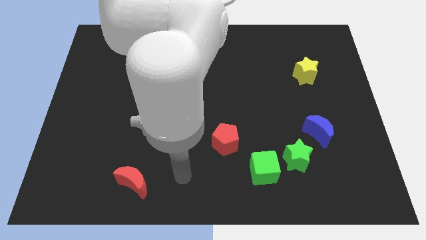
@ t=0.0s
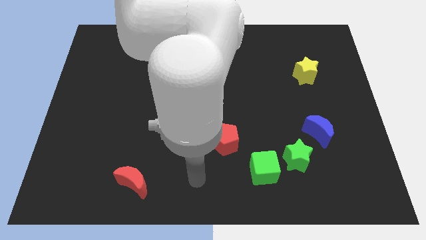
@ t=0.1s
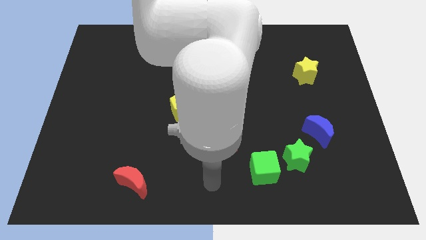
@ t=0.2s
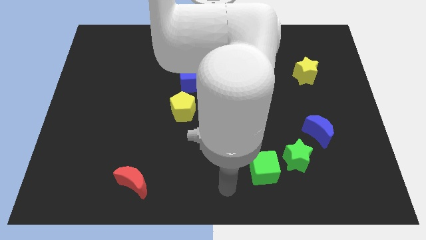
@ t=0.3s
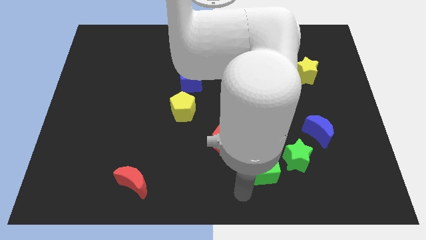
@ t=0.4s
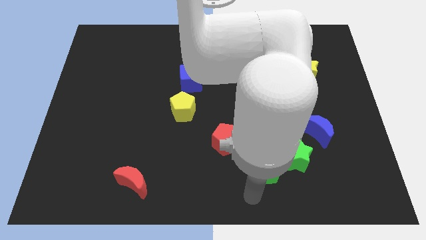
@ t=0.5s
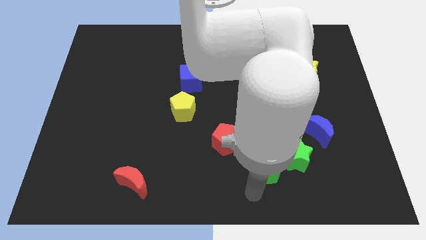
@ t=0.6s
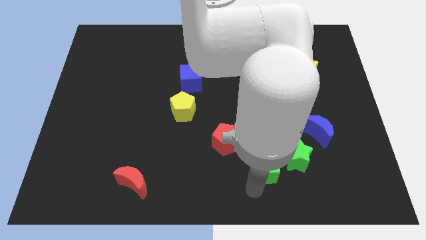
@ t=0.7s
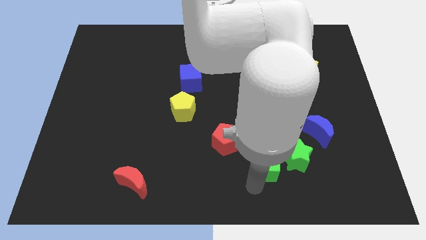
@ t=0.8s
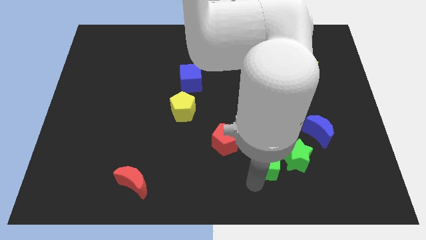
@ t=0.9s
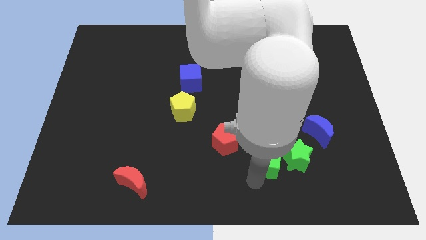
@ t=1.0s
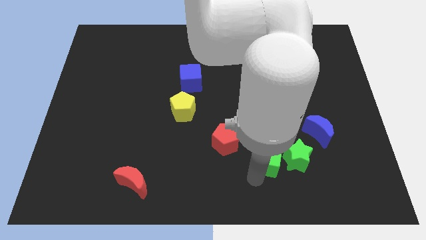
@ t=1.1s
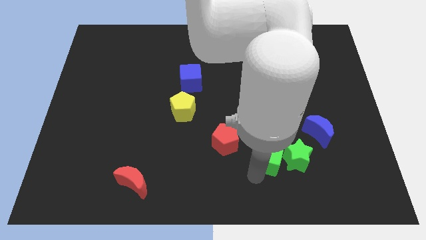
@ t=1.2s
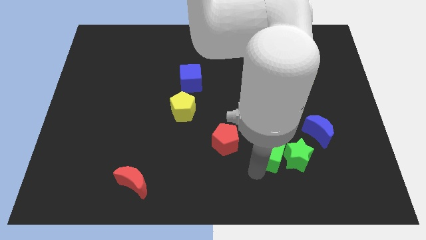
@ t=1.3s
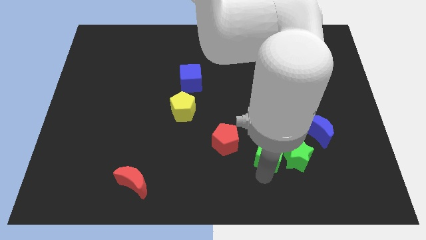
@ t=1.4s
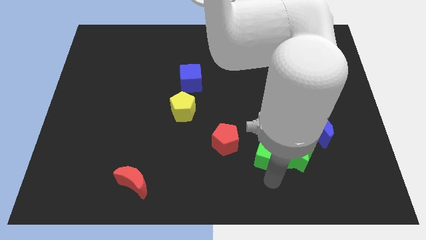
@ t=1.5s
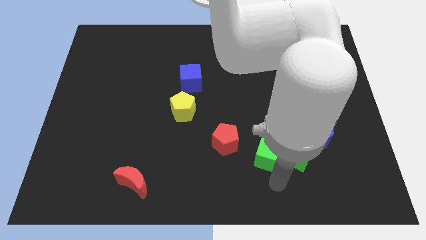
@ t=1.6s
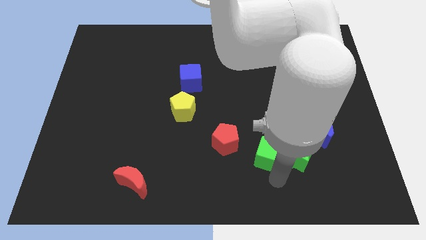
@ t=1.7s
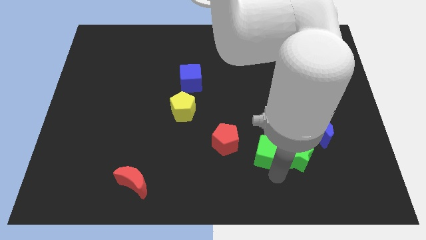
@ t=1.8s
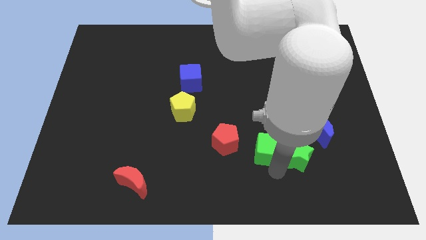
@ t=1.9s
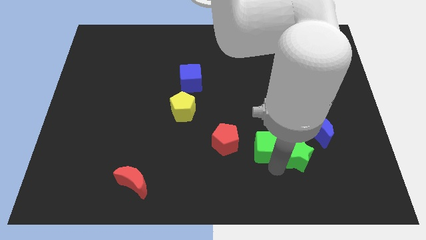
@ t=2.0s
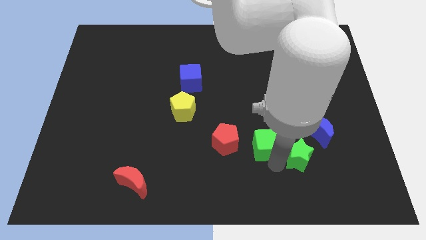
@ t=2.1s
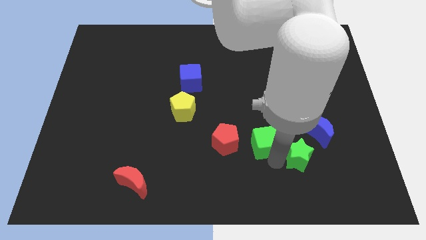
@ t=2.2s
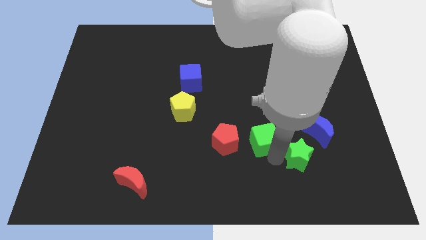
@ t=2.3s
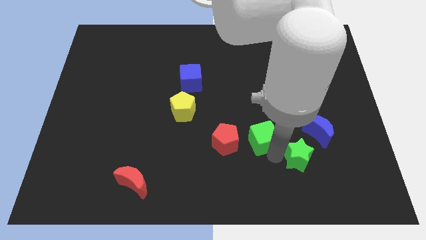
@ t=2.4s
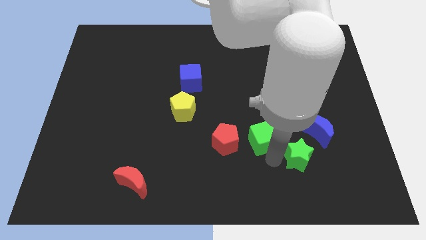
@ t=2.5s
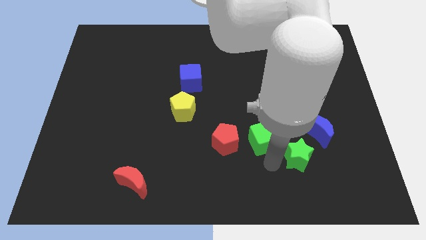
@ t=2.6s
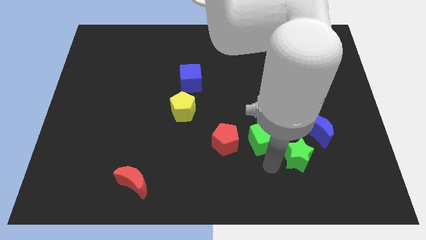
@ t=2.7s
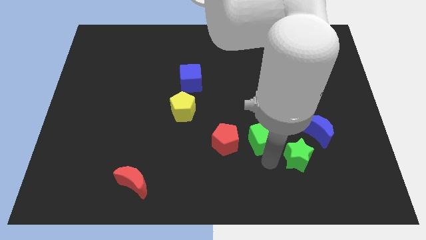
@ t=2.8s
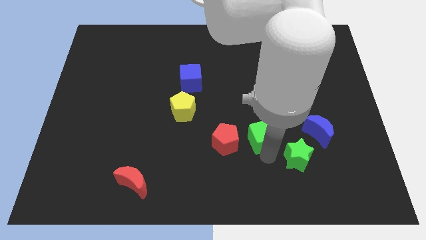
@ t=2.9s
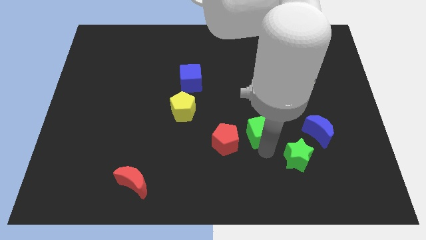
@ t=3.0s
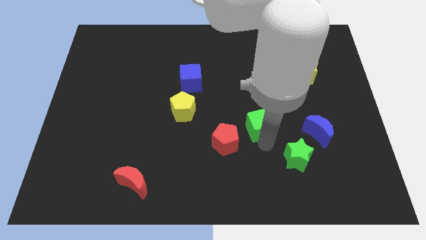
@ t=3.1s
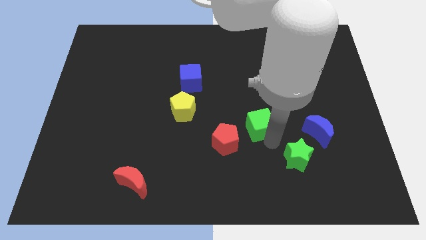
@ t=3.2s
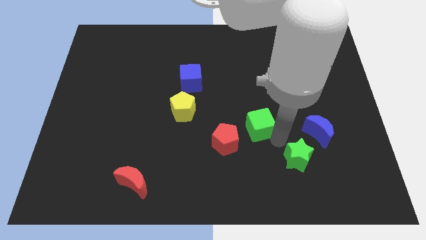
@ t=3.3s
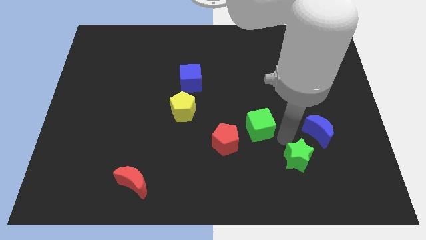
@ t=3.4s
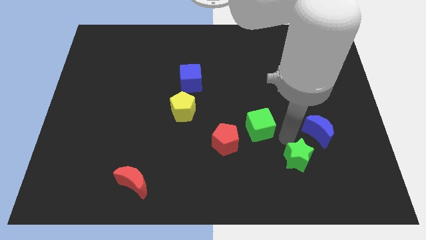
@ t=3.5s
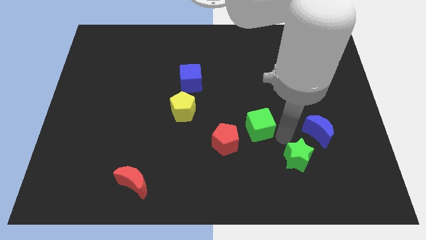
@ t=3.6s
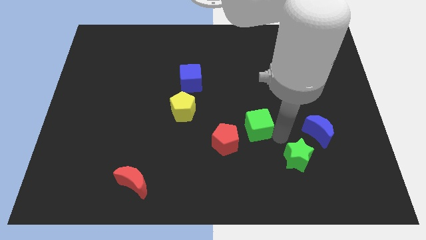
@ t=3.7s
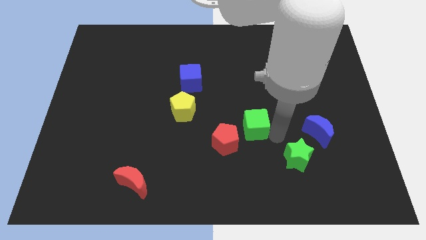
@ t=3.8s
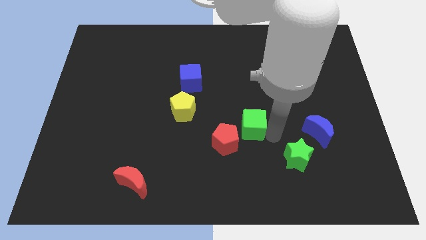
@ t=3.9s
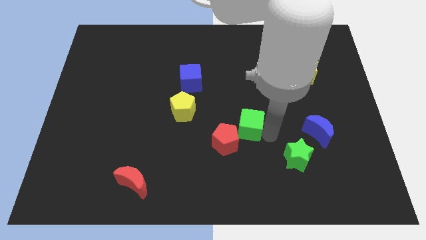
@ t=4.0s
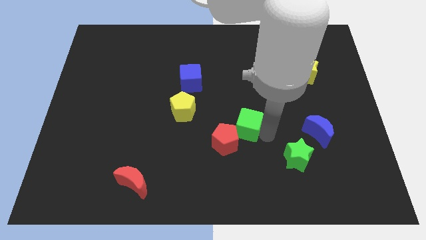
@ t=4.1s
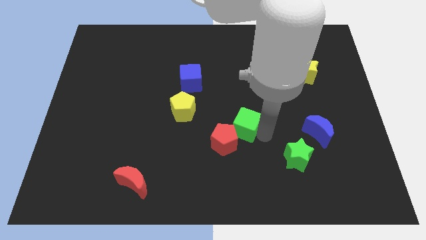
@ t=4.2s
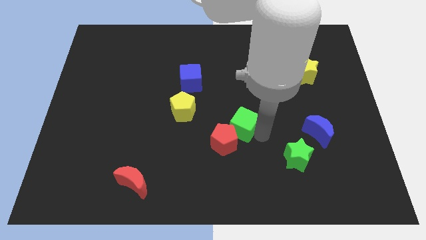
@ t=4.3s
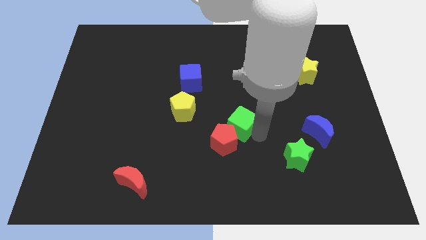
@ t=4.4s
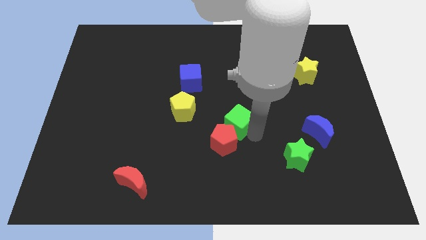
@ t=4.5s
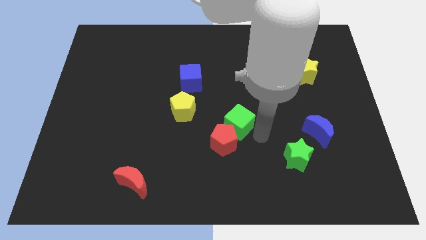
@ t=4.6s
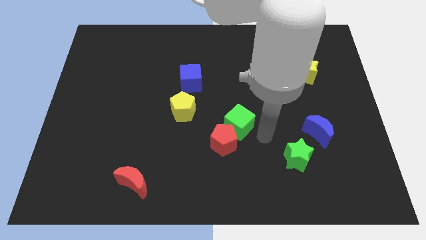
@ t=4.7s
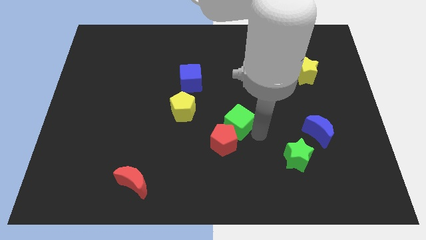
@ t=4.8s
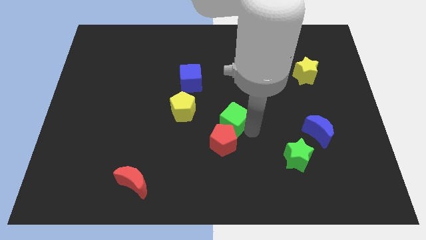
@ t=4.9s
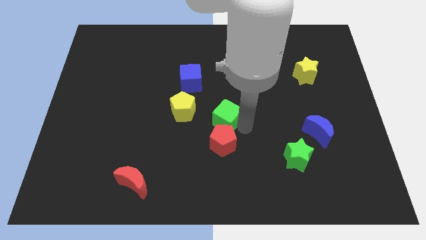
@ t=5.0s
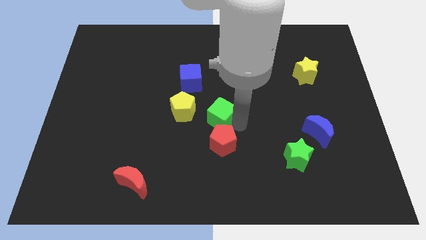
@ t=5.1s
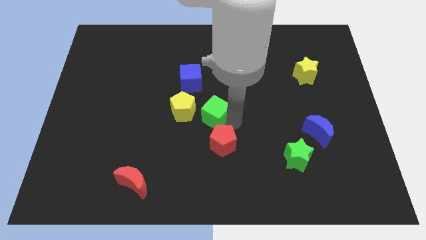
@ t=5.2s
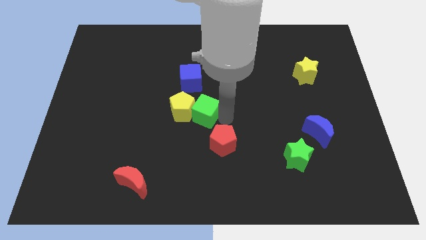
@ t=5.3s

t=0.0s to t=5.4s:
slide the green cube to the yellow pentagon
